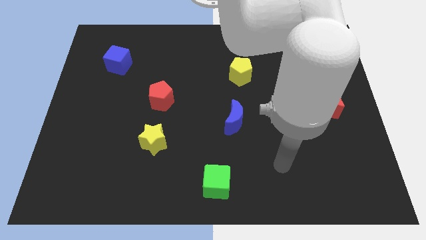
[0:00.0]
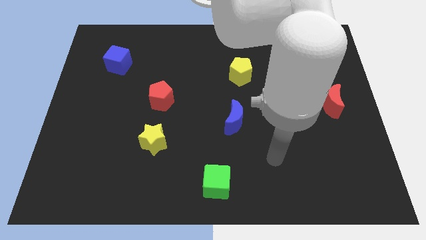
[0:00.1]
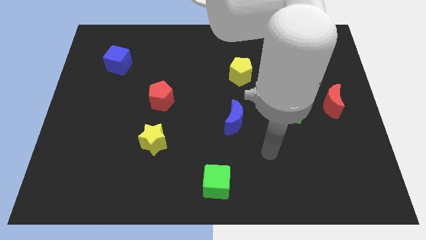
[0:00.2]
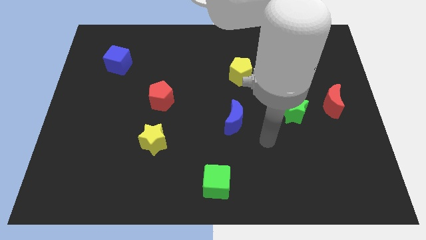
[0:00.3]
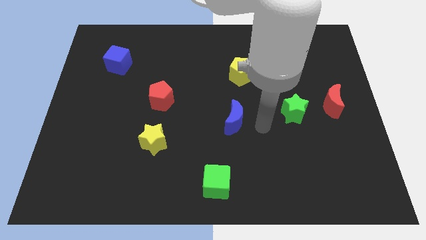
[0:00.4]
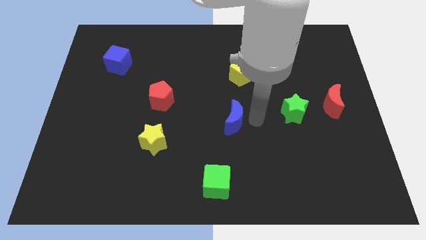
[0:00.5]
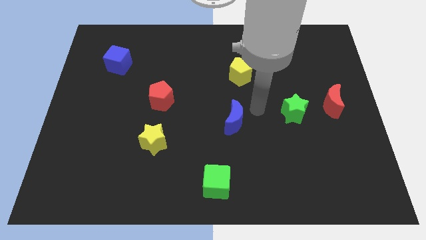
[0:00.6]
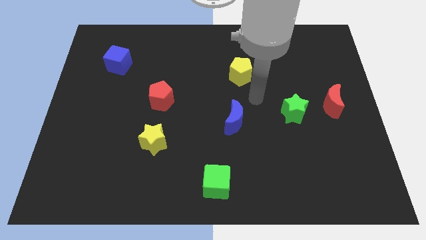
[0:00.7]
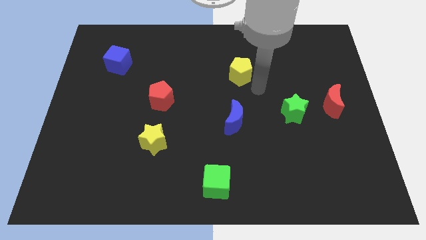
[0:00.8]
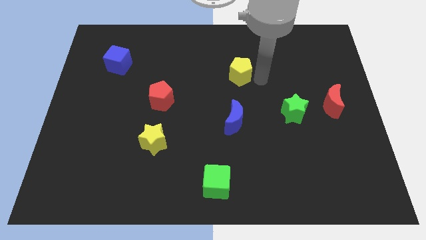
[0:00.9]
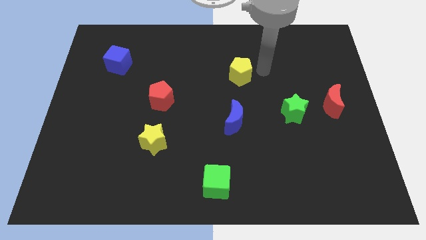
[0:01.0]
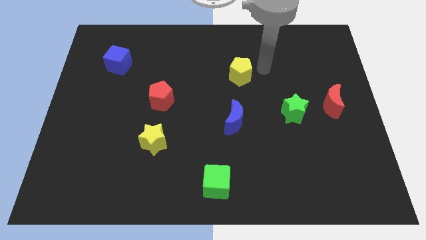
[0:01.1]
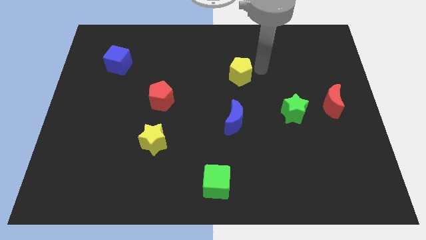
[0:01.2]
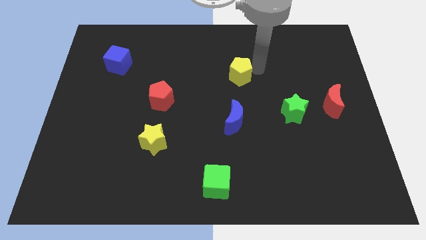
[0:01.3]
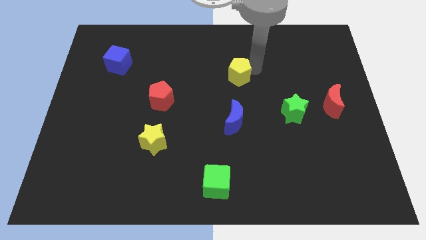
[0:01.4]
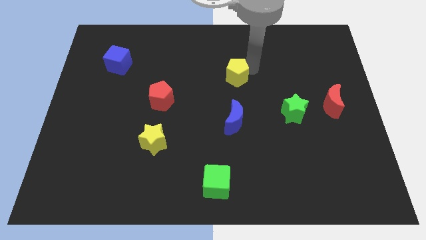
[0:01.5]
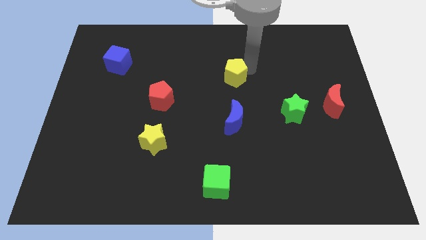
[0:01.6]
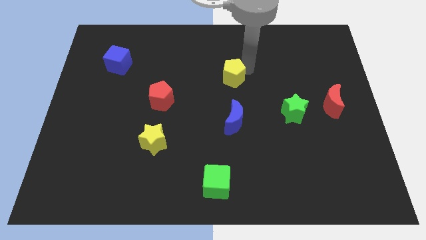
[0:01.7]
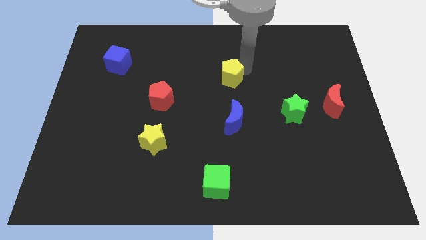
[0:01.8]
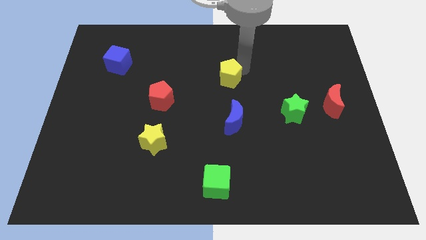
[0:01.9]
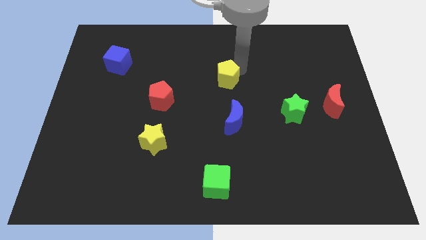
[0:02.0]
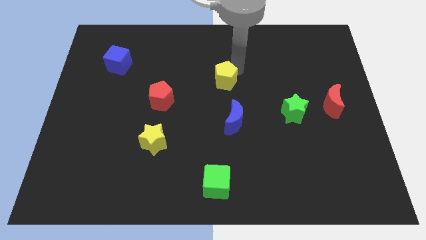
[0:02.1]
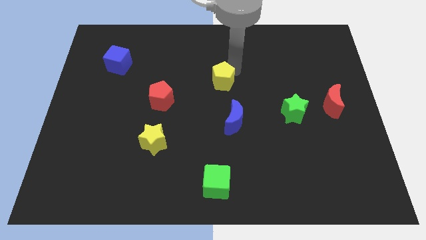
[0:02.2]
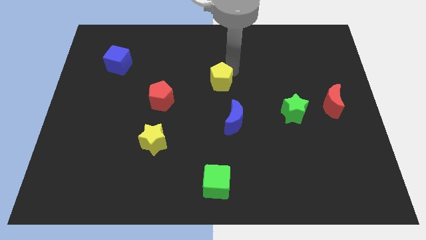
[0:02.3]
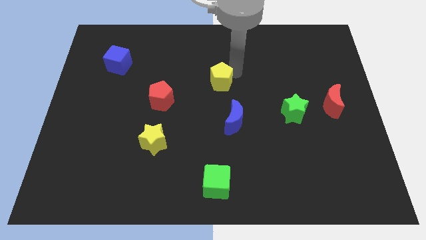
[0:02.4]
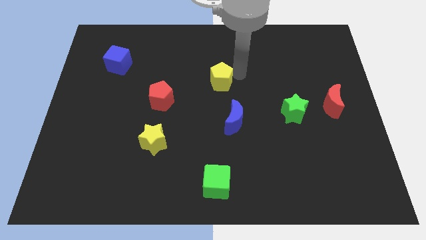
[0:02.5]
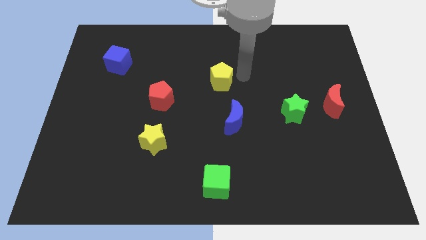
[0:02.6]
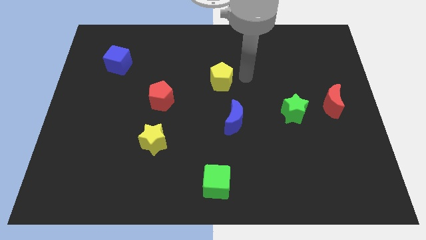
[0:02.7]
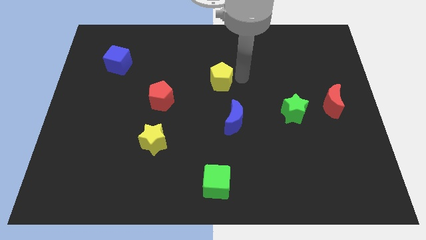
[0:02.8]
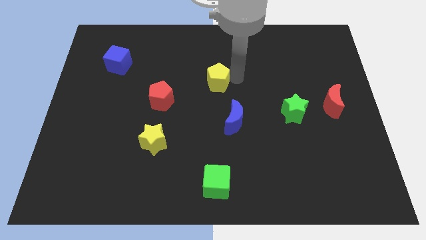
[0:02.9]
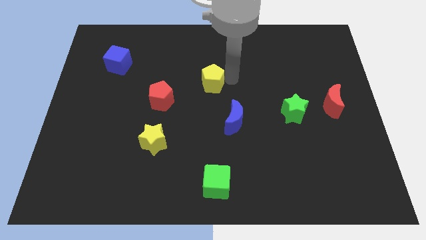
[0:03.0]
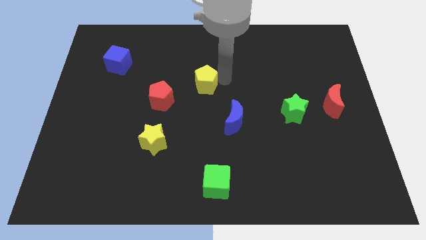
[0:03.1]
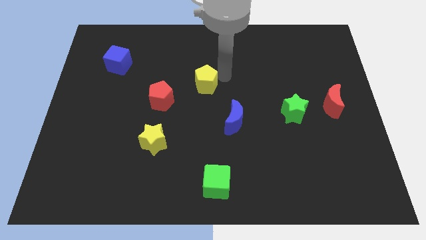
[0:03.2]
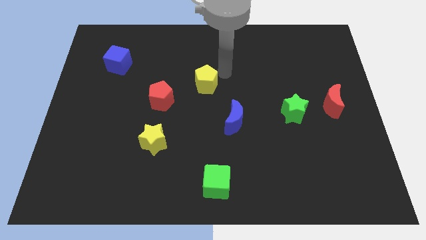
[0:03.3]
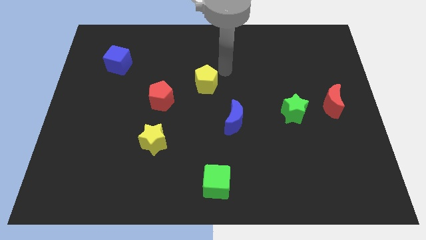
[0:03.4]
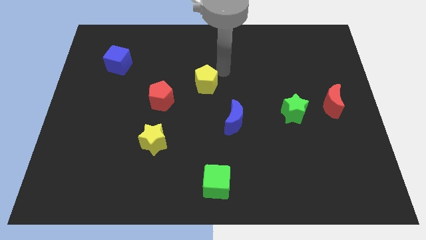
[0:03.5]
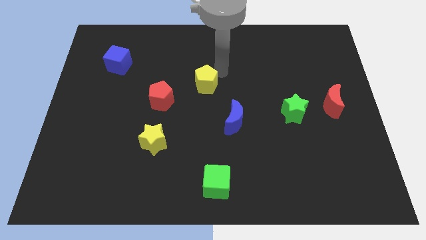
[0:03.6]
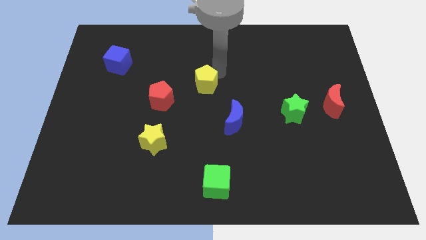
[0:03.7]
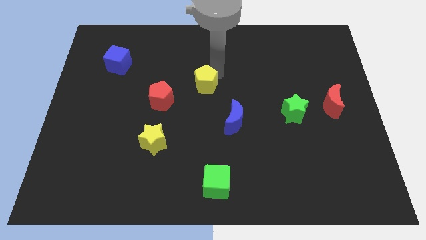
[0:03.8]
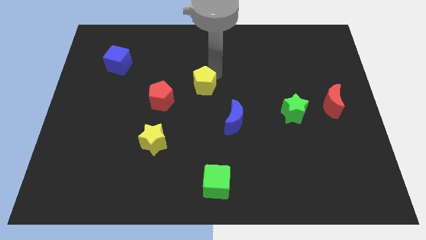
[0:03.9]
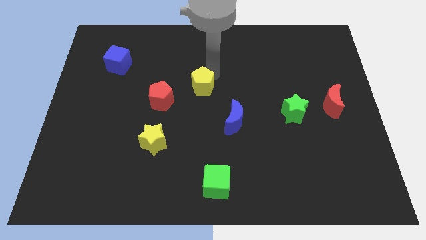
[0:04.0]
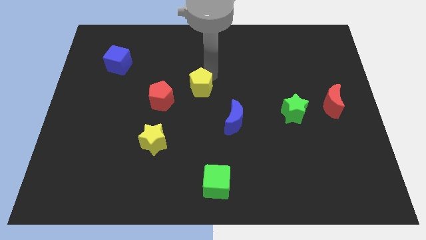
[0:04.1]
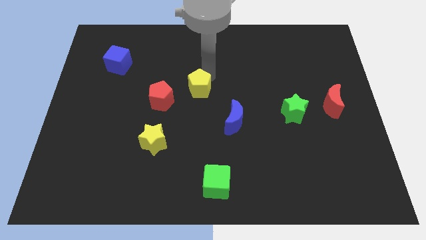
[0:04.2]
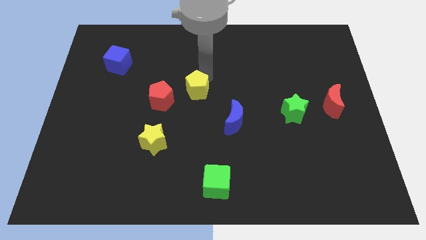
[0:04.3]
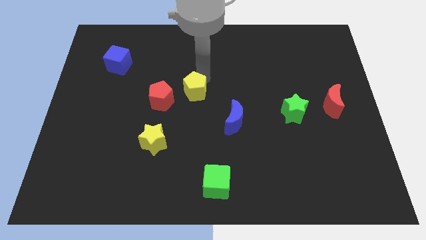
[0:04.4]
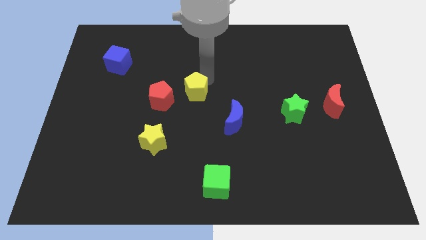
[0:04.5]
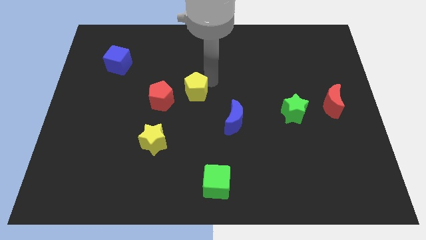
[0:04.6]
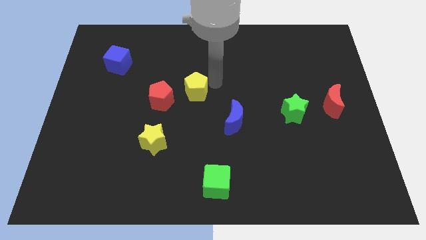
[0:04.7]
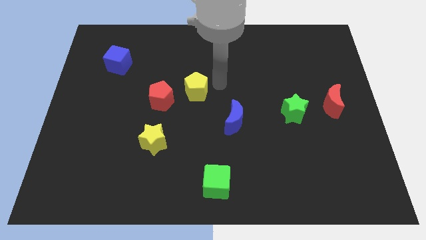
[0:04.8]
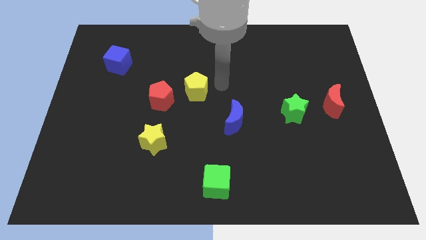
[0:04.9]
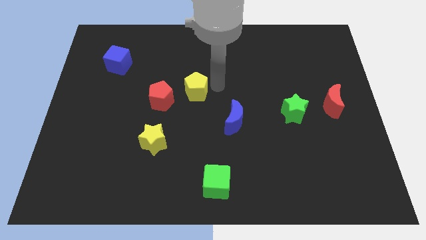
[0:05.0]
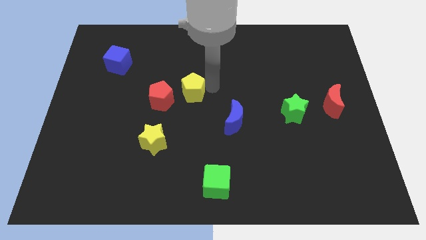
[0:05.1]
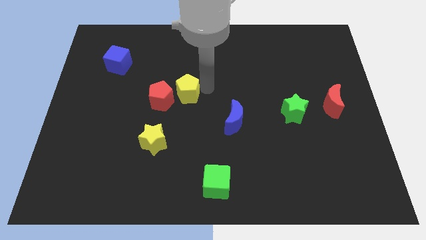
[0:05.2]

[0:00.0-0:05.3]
move the yellow pentagon to the red pentagon

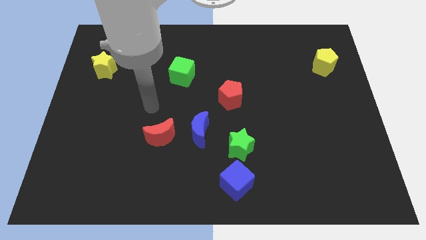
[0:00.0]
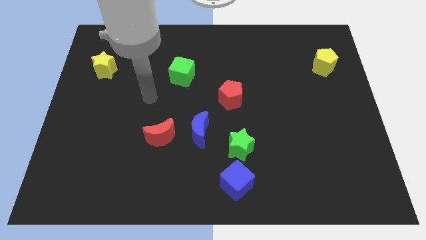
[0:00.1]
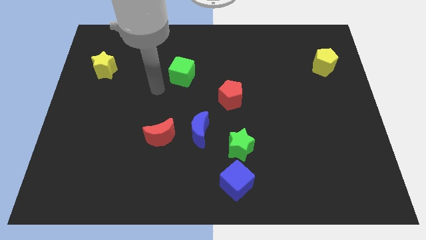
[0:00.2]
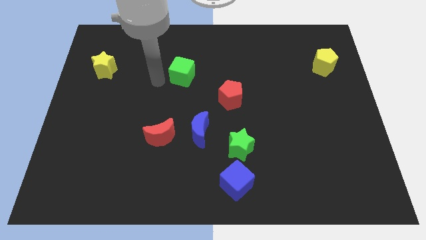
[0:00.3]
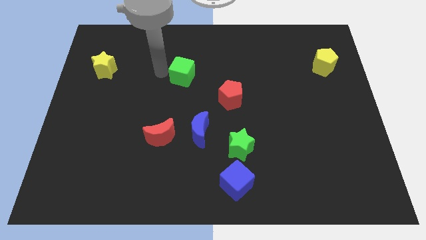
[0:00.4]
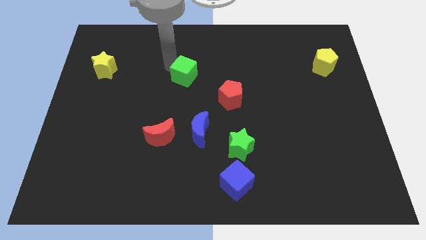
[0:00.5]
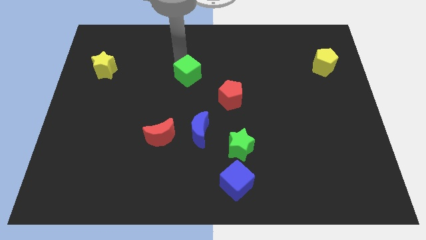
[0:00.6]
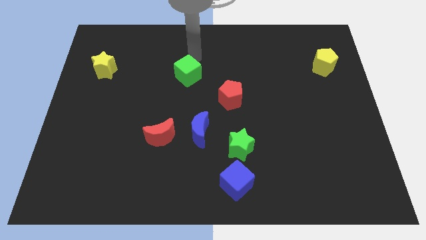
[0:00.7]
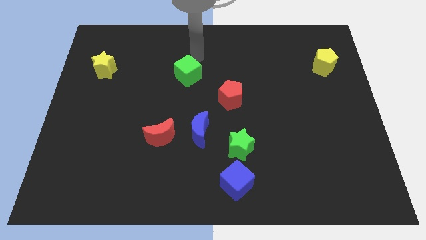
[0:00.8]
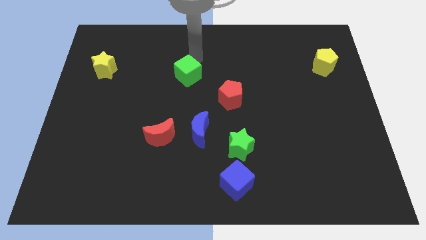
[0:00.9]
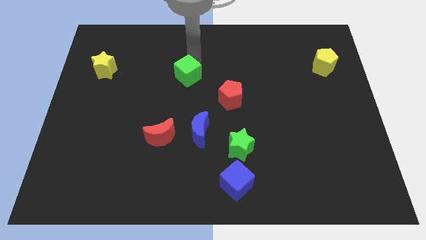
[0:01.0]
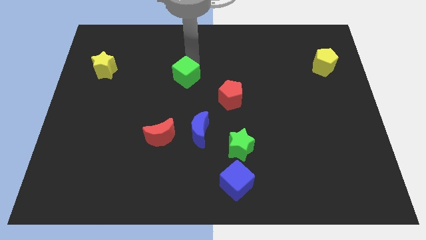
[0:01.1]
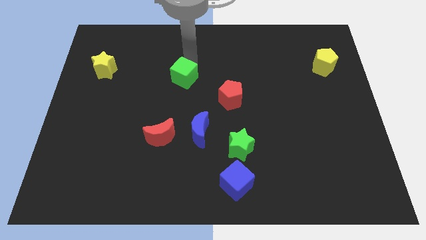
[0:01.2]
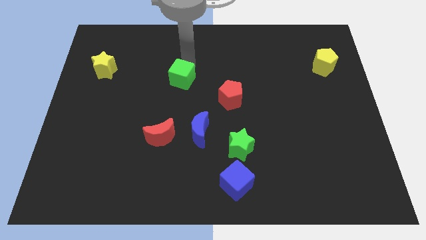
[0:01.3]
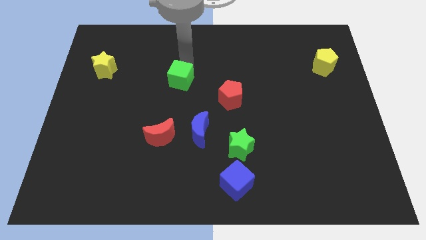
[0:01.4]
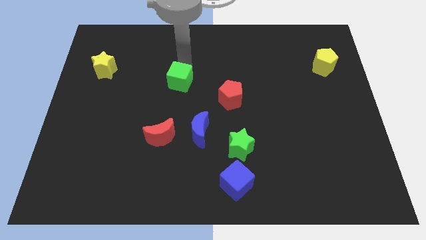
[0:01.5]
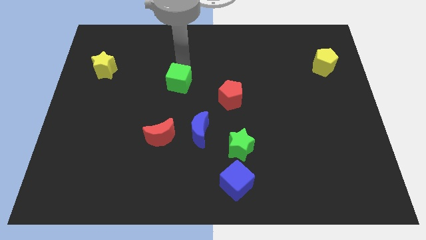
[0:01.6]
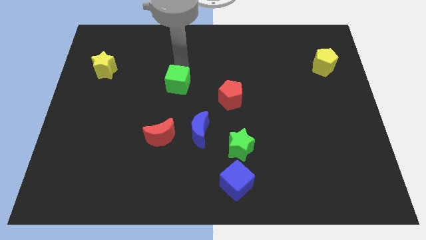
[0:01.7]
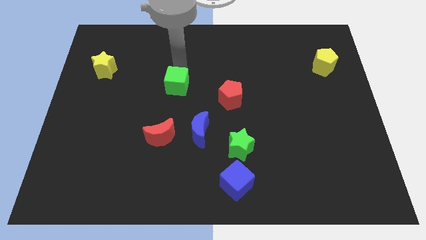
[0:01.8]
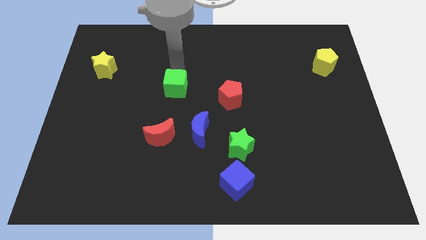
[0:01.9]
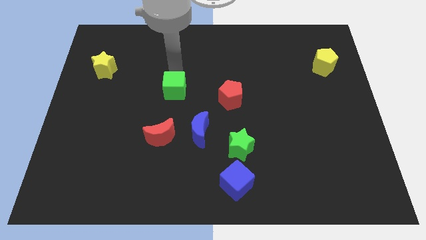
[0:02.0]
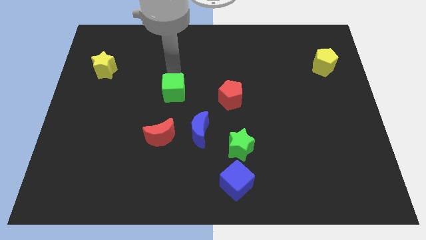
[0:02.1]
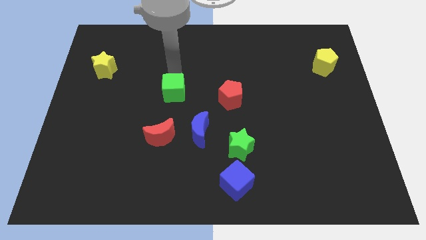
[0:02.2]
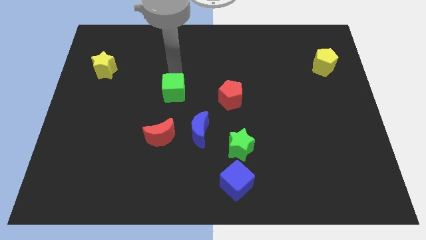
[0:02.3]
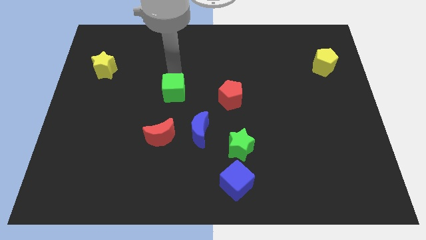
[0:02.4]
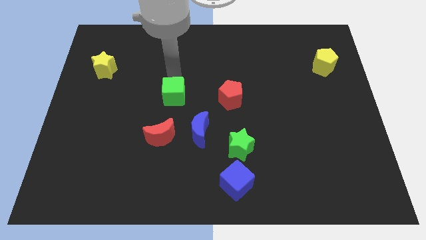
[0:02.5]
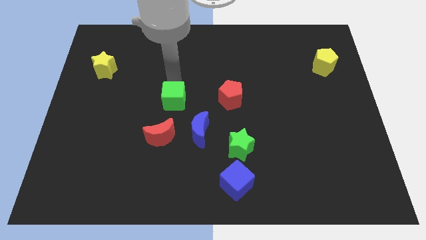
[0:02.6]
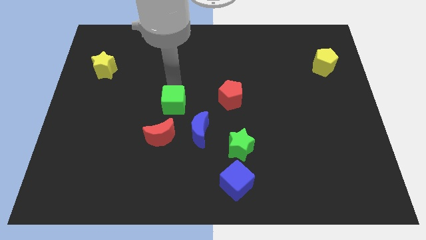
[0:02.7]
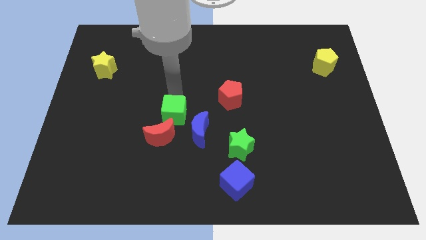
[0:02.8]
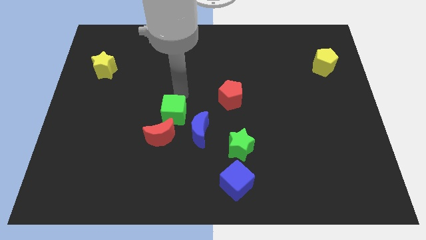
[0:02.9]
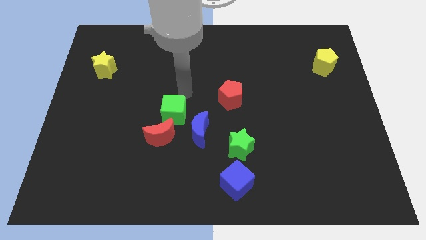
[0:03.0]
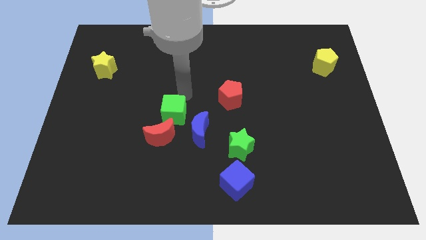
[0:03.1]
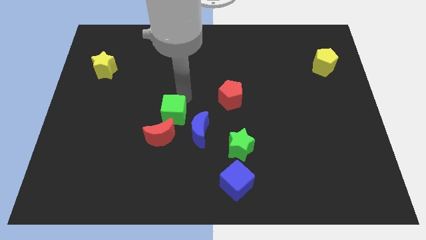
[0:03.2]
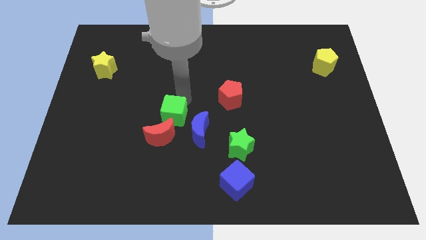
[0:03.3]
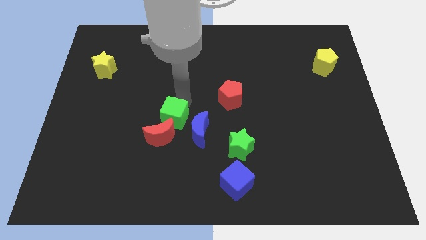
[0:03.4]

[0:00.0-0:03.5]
push the green cube towards the red moon
